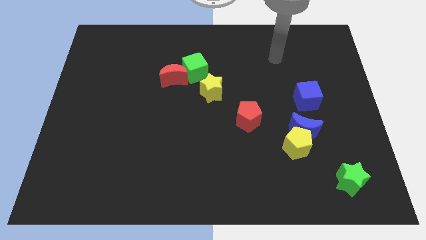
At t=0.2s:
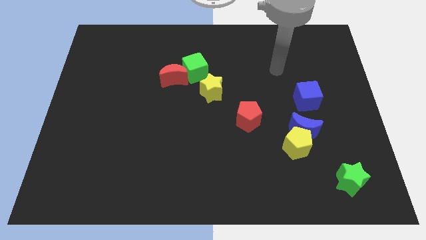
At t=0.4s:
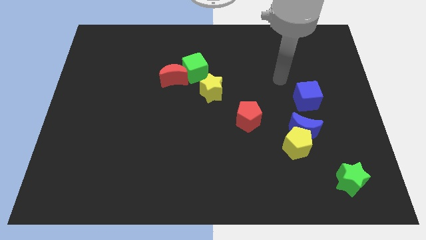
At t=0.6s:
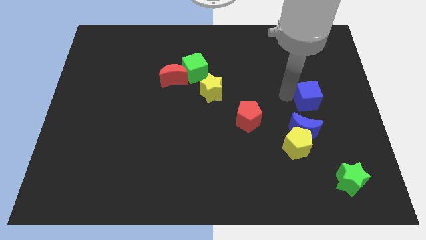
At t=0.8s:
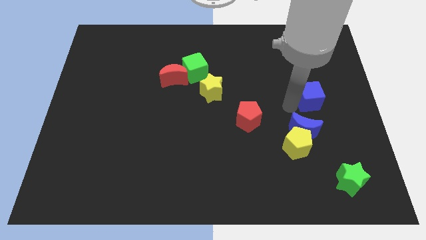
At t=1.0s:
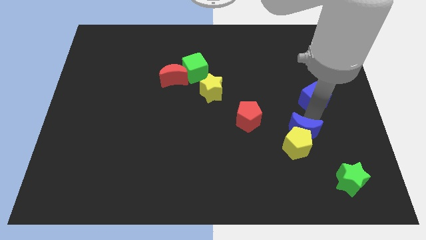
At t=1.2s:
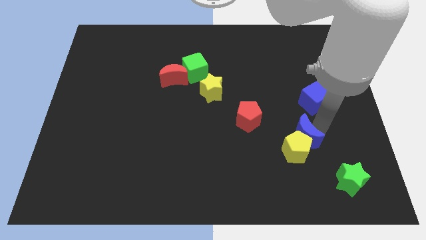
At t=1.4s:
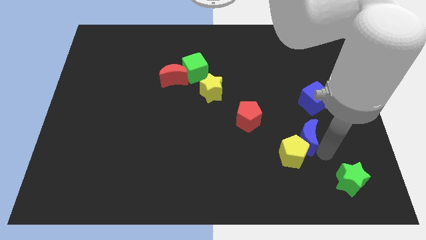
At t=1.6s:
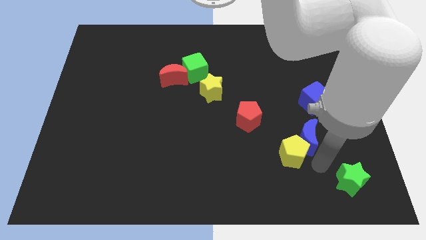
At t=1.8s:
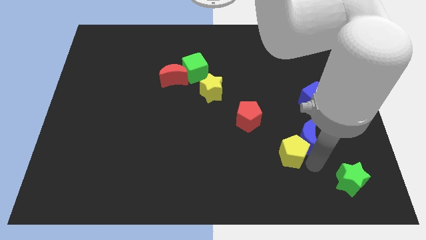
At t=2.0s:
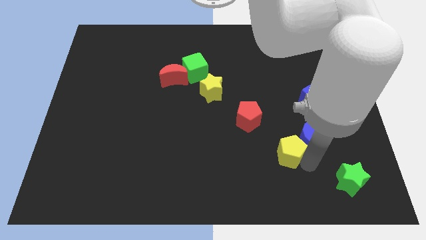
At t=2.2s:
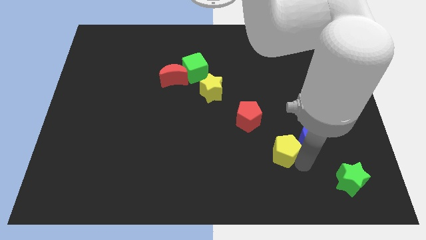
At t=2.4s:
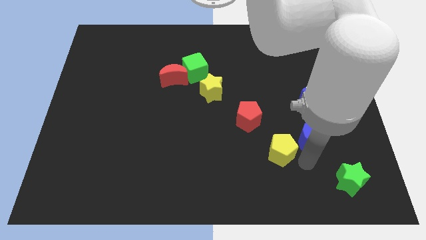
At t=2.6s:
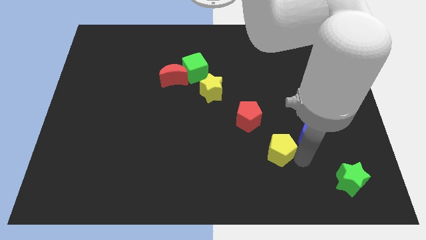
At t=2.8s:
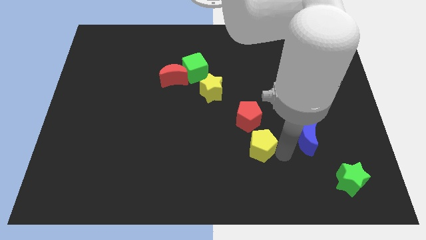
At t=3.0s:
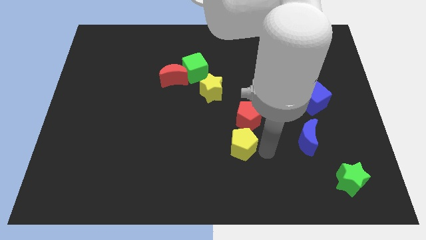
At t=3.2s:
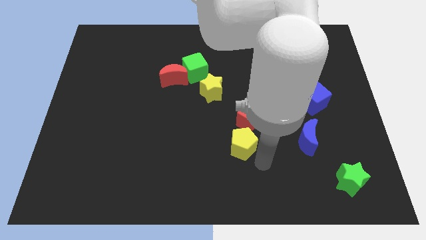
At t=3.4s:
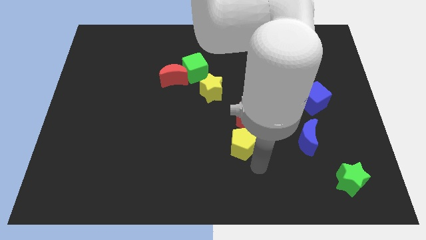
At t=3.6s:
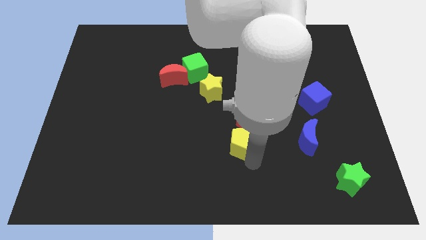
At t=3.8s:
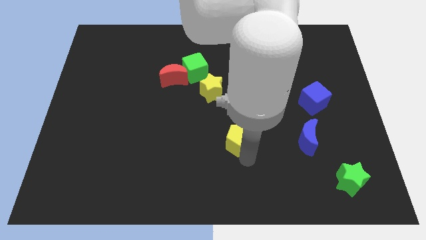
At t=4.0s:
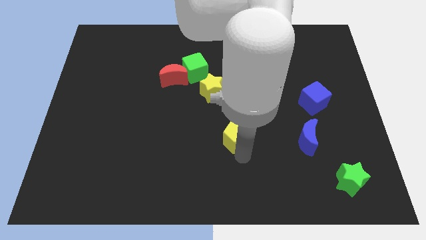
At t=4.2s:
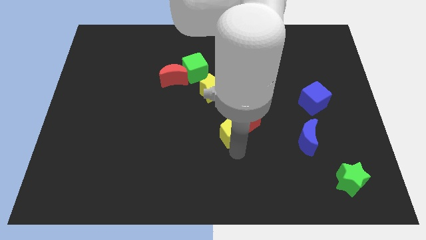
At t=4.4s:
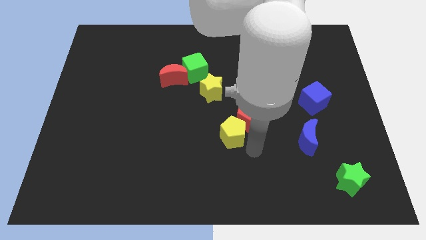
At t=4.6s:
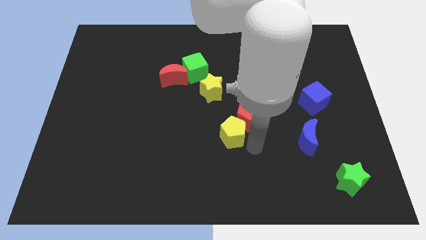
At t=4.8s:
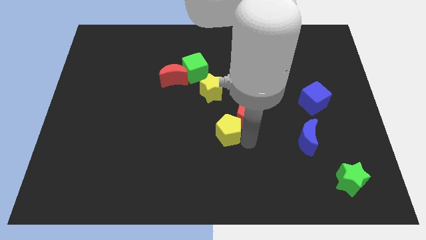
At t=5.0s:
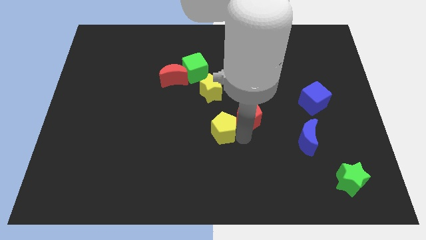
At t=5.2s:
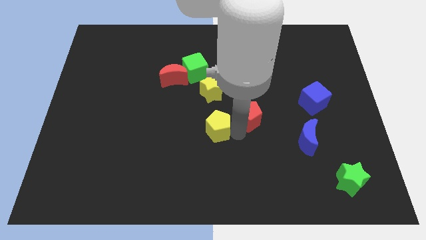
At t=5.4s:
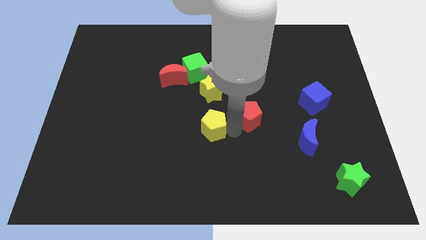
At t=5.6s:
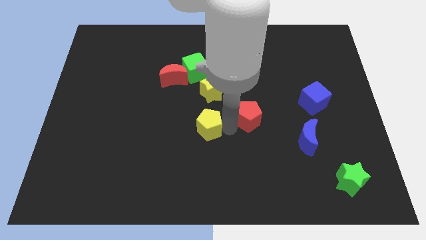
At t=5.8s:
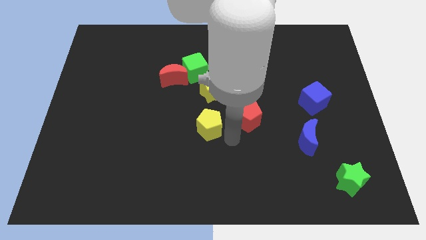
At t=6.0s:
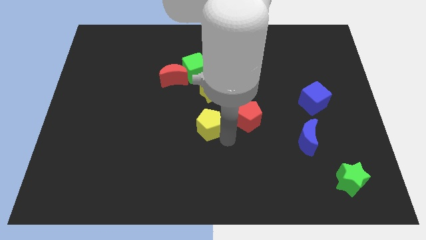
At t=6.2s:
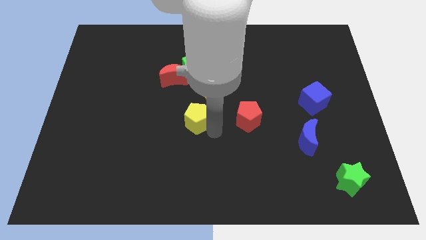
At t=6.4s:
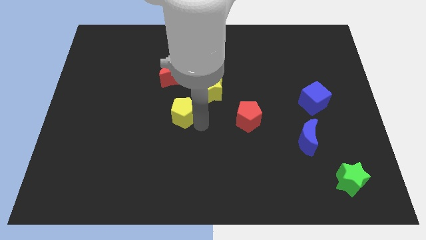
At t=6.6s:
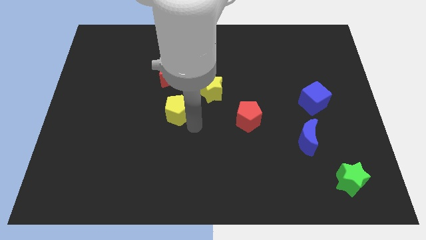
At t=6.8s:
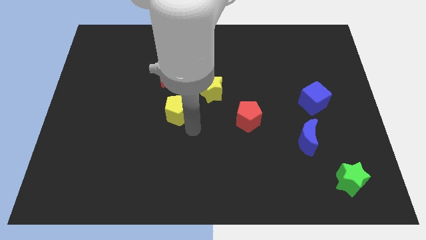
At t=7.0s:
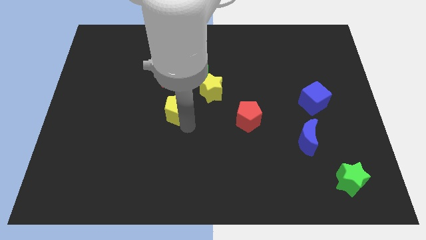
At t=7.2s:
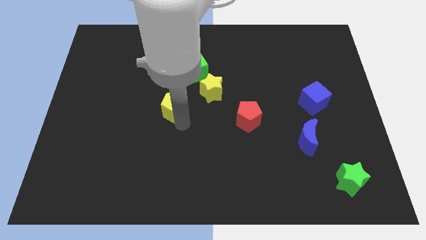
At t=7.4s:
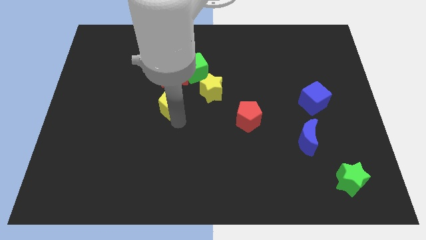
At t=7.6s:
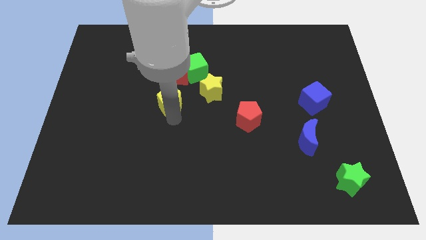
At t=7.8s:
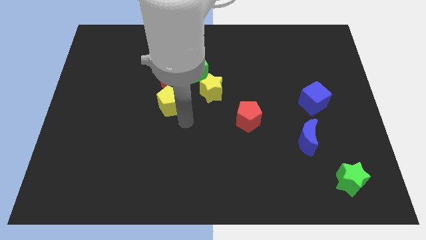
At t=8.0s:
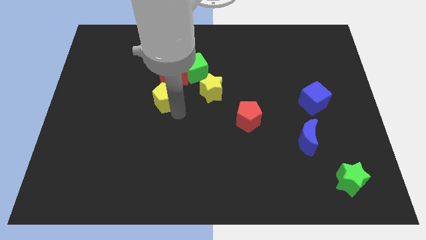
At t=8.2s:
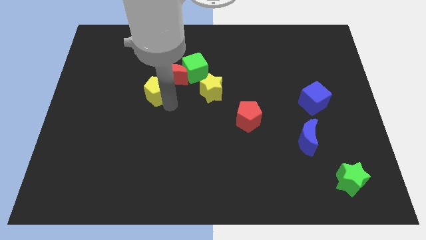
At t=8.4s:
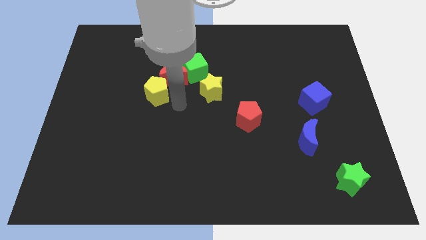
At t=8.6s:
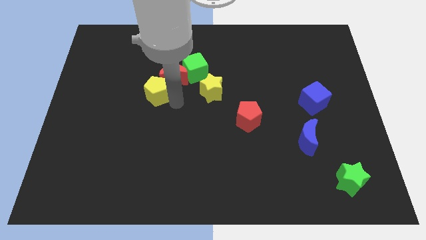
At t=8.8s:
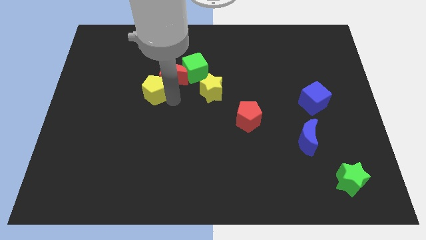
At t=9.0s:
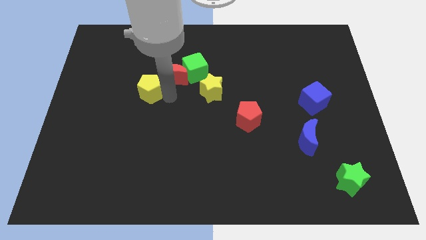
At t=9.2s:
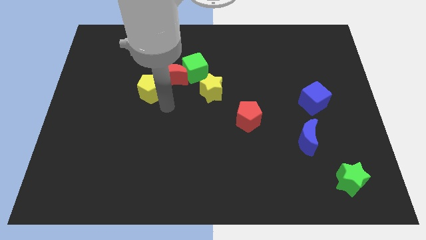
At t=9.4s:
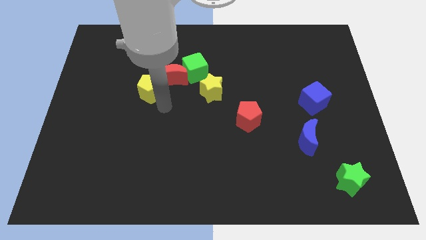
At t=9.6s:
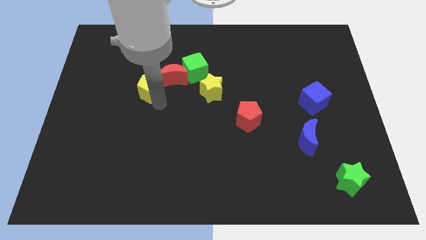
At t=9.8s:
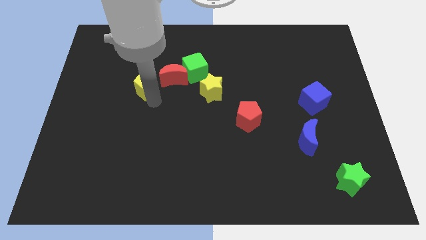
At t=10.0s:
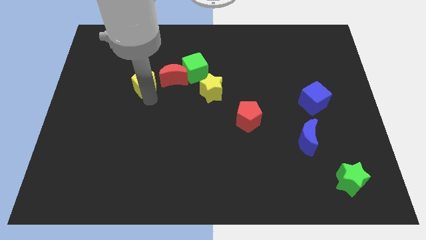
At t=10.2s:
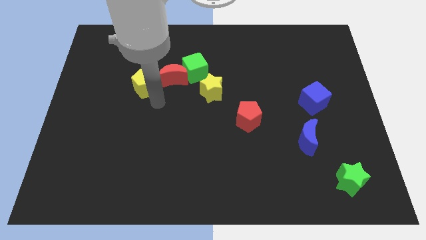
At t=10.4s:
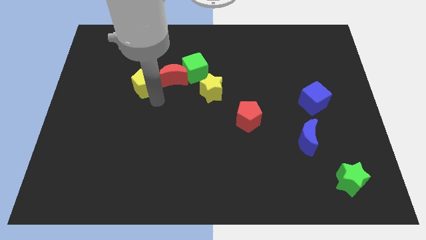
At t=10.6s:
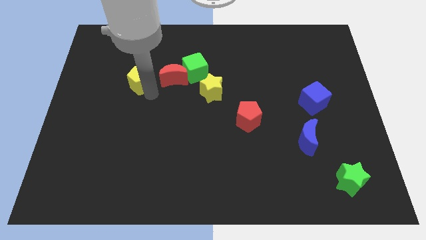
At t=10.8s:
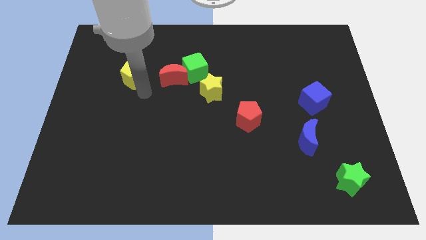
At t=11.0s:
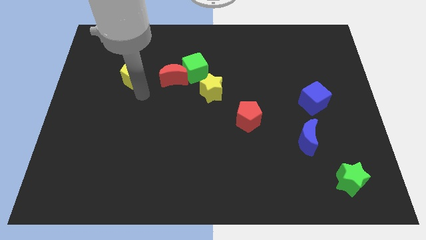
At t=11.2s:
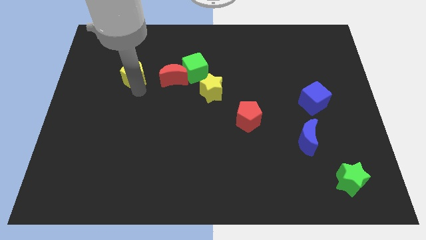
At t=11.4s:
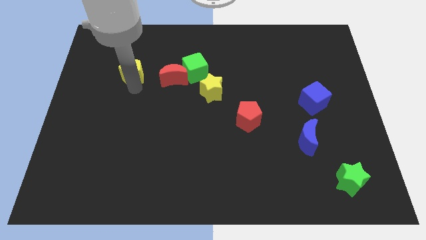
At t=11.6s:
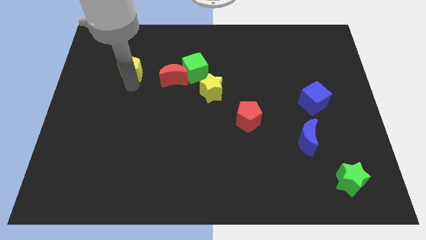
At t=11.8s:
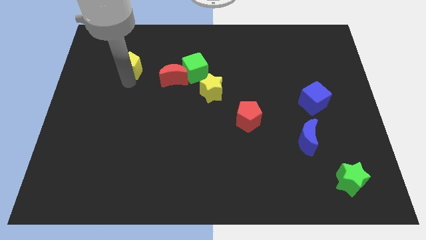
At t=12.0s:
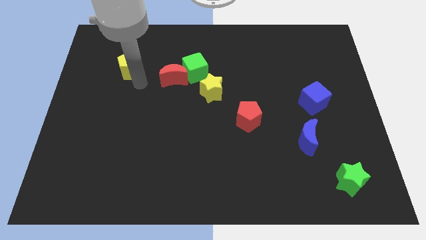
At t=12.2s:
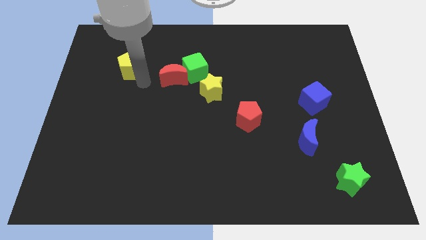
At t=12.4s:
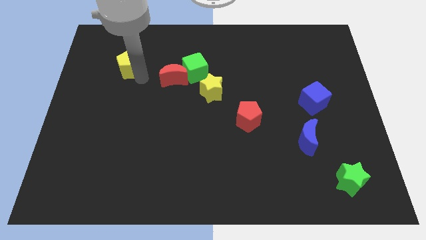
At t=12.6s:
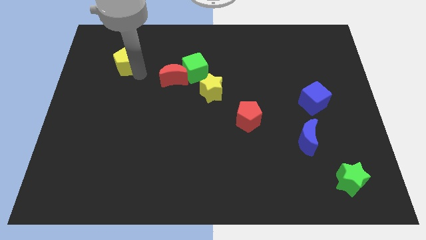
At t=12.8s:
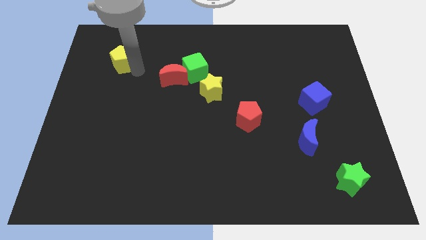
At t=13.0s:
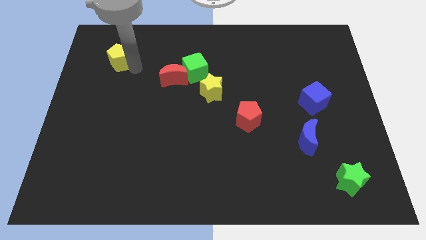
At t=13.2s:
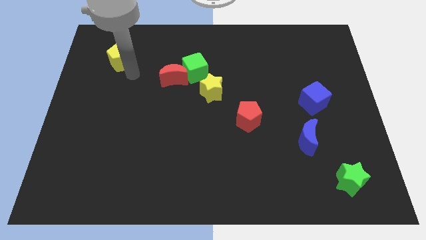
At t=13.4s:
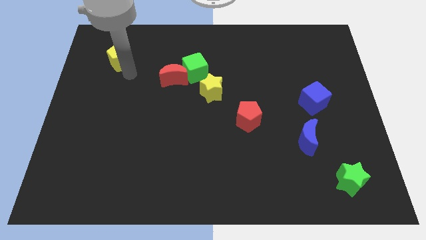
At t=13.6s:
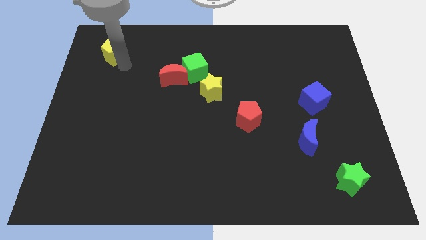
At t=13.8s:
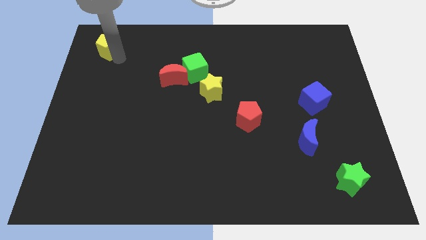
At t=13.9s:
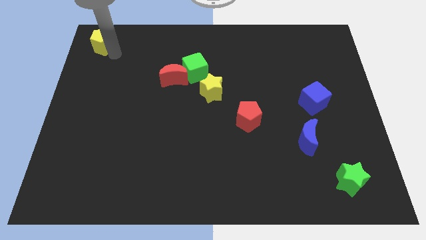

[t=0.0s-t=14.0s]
push the yellow pentagon to the upper left corner
